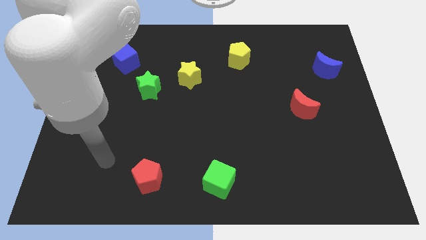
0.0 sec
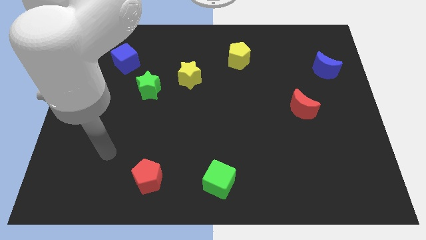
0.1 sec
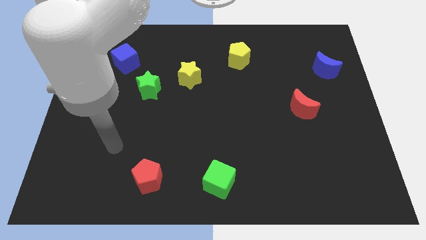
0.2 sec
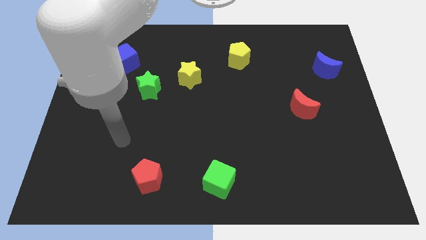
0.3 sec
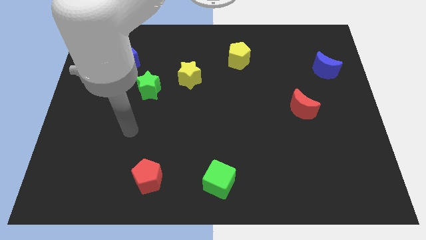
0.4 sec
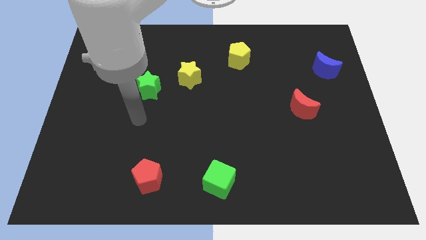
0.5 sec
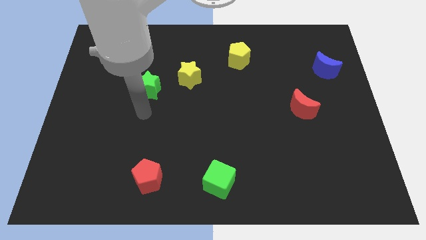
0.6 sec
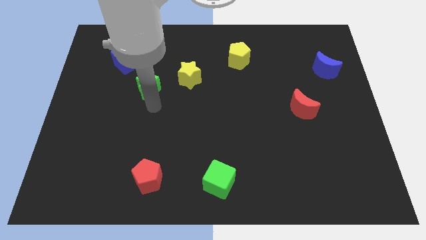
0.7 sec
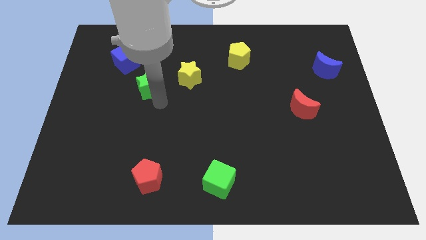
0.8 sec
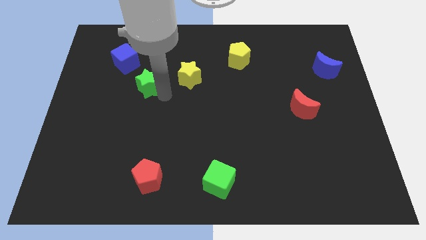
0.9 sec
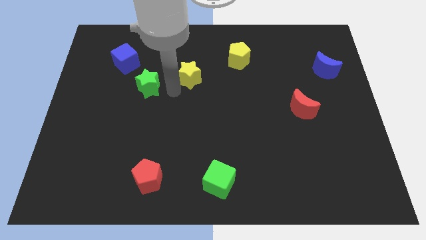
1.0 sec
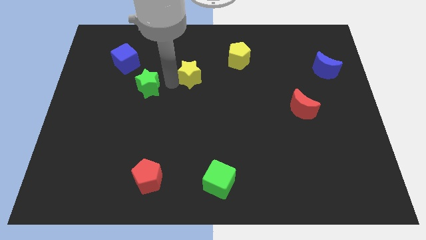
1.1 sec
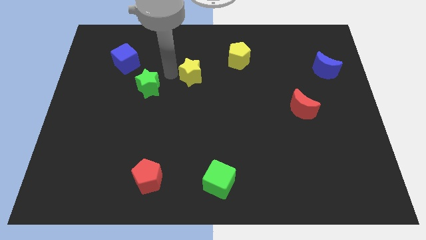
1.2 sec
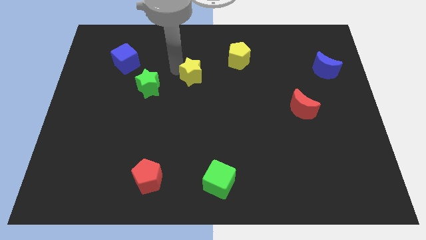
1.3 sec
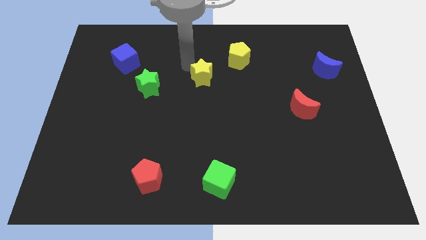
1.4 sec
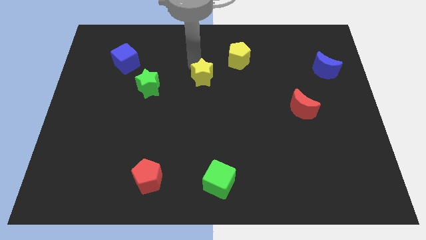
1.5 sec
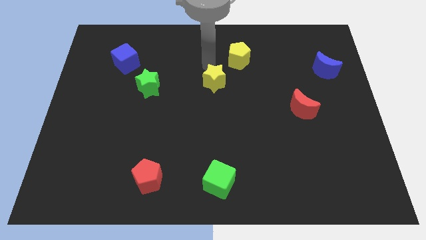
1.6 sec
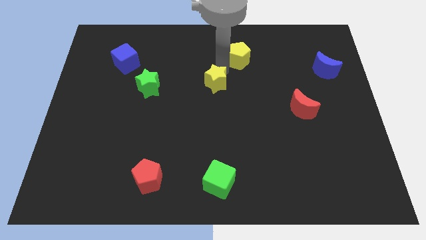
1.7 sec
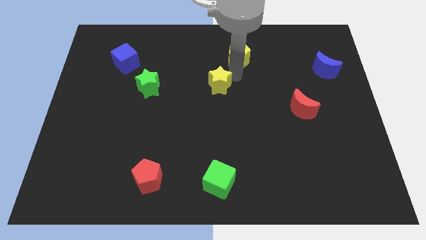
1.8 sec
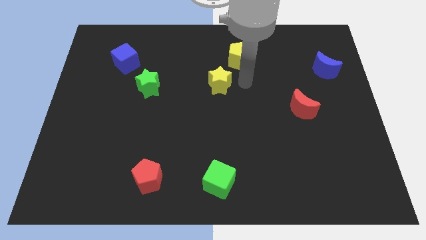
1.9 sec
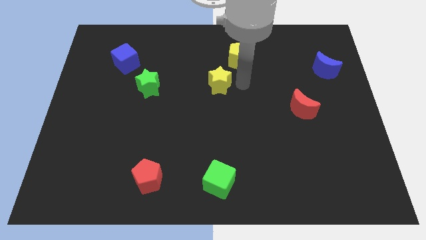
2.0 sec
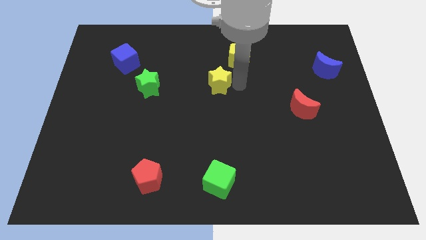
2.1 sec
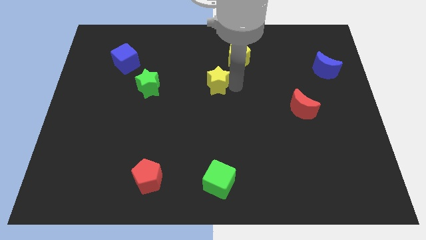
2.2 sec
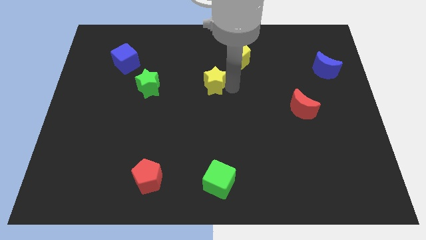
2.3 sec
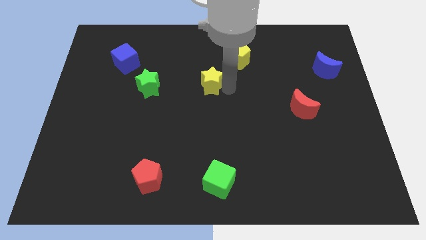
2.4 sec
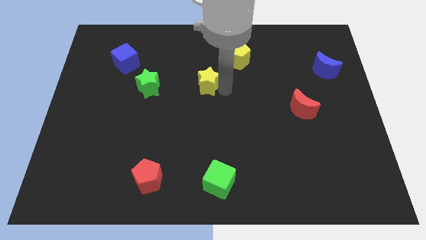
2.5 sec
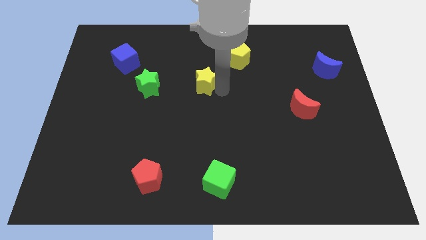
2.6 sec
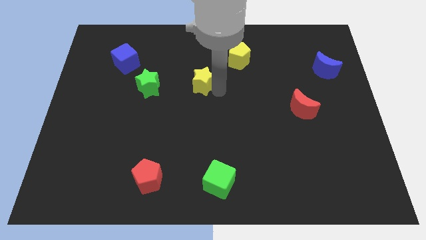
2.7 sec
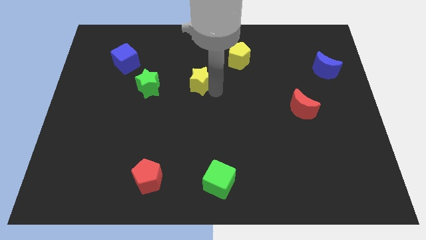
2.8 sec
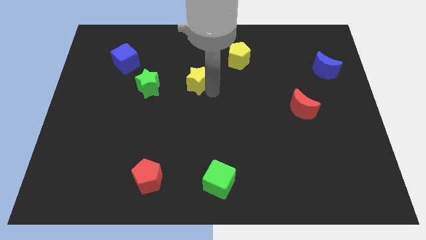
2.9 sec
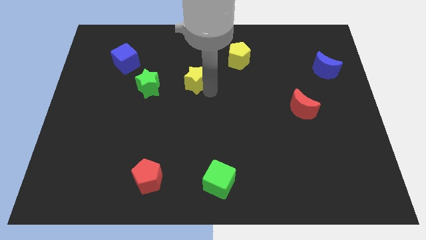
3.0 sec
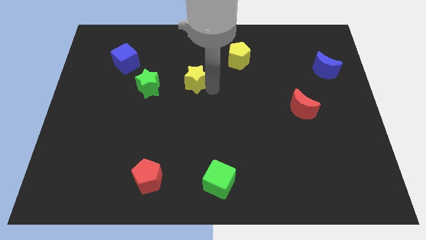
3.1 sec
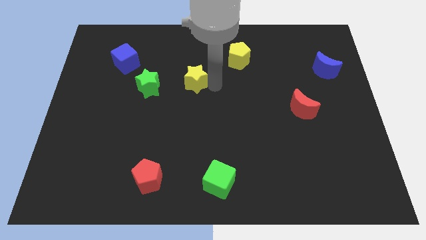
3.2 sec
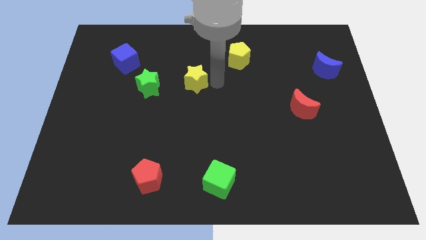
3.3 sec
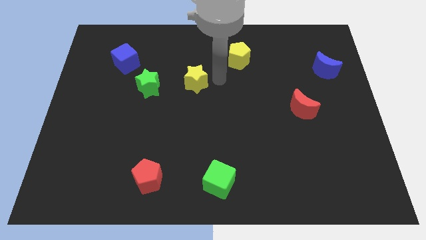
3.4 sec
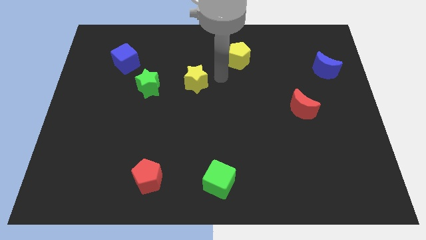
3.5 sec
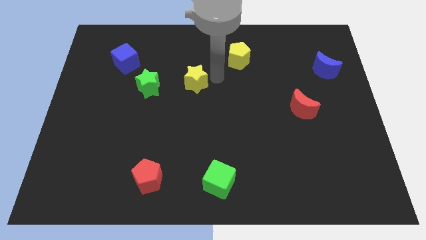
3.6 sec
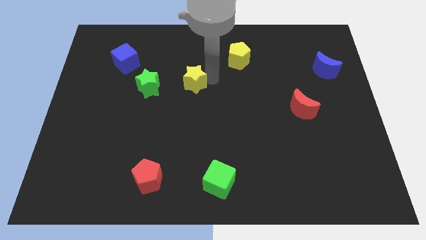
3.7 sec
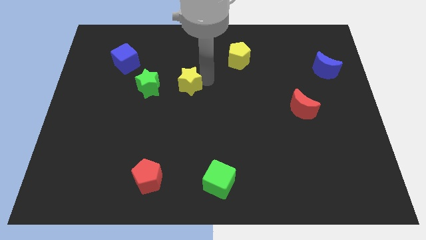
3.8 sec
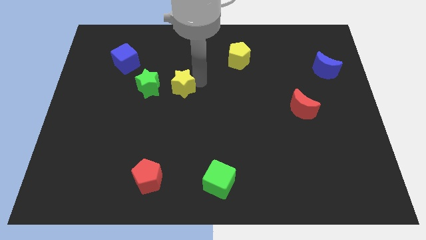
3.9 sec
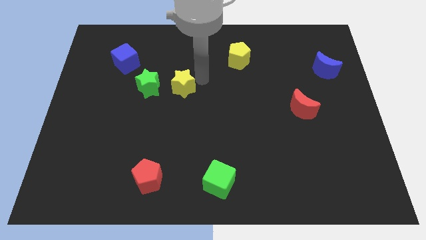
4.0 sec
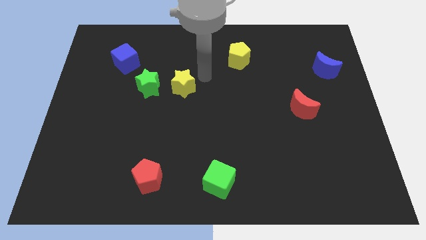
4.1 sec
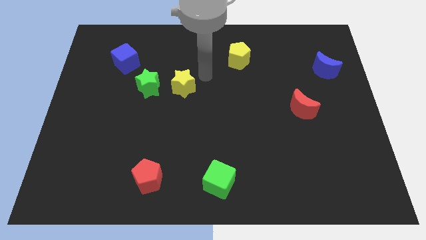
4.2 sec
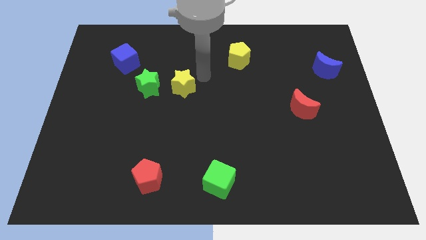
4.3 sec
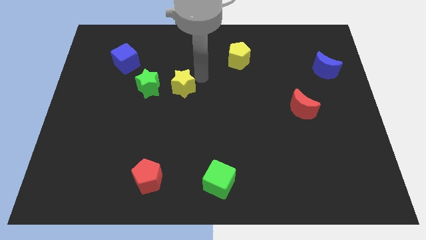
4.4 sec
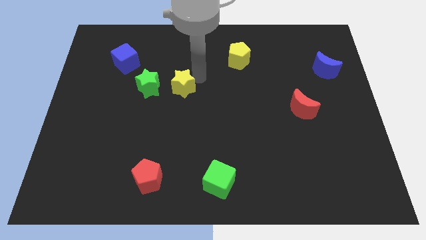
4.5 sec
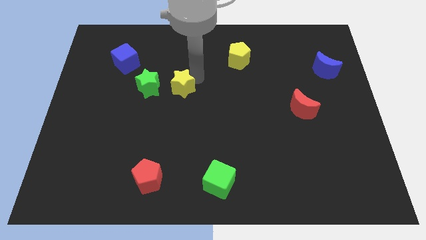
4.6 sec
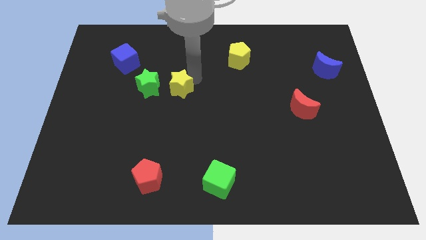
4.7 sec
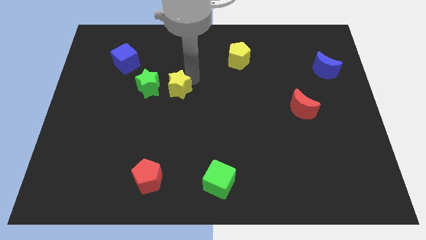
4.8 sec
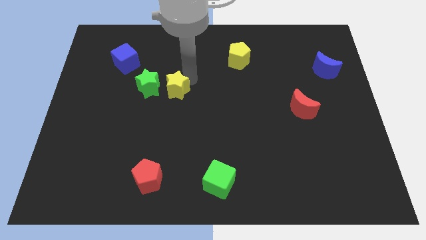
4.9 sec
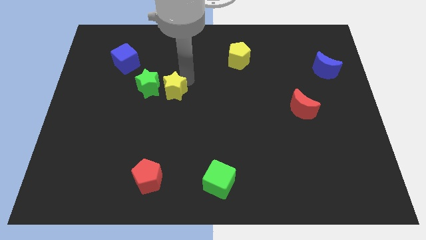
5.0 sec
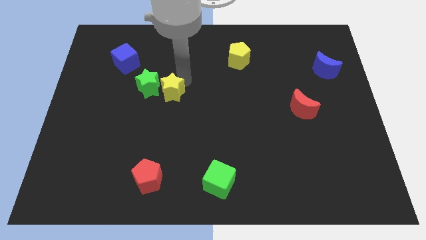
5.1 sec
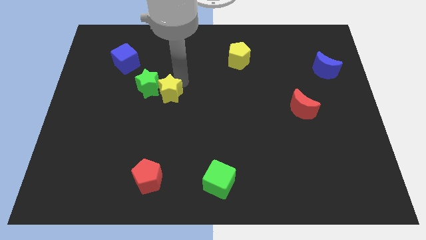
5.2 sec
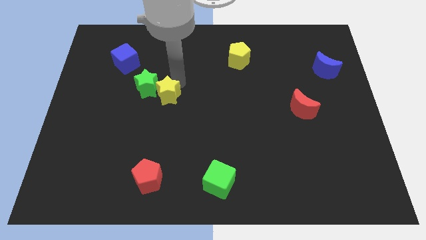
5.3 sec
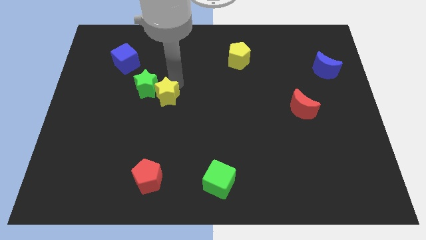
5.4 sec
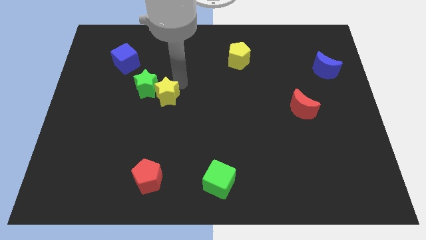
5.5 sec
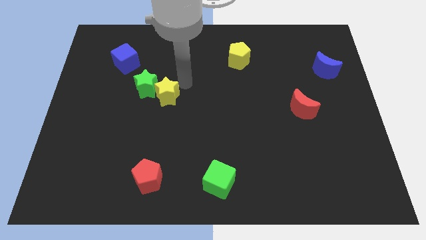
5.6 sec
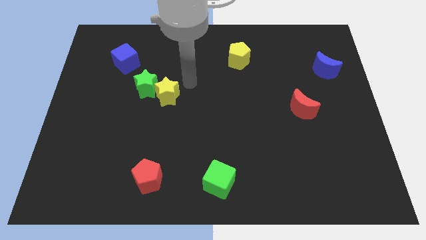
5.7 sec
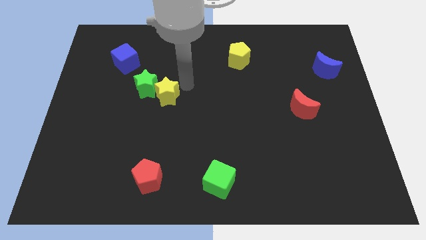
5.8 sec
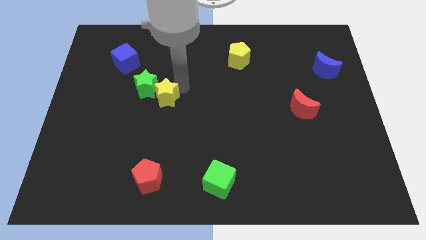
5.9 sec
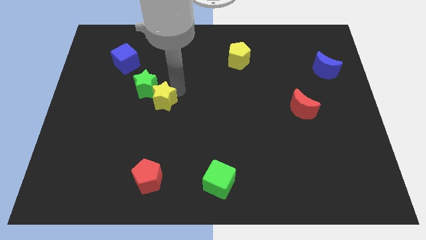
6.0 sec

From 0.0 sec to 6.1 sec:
move the yellow star to the bottom of the green star
